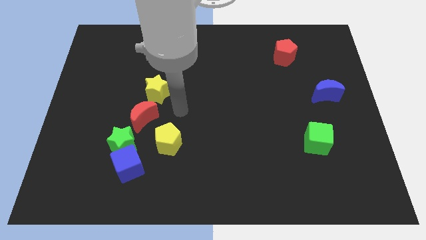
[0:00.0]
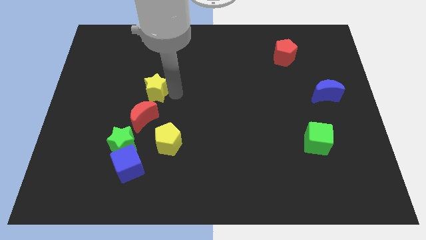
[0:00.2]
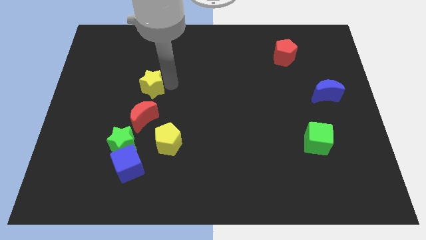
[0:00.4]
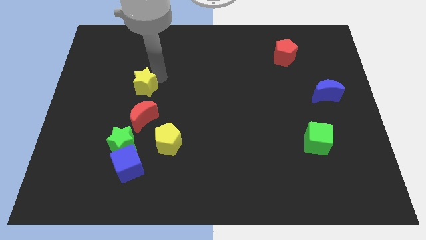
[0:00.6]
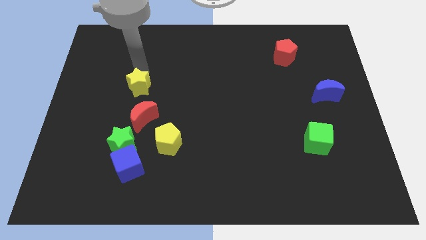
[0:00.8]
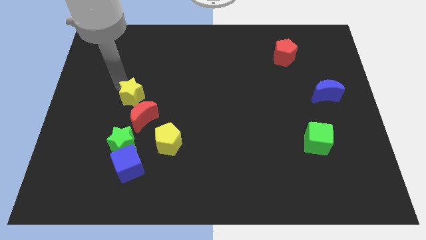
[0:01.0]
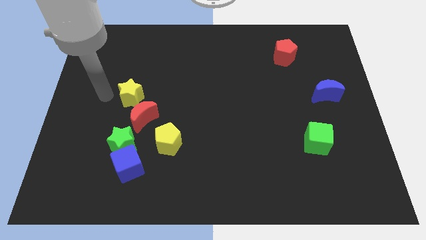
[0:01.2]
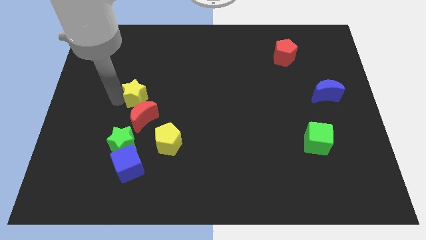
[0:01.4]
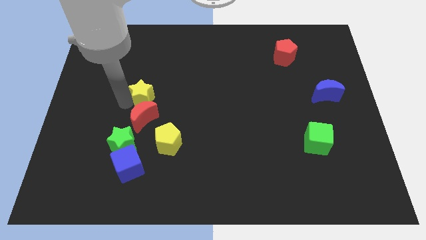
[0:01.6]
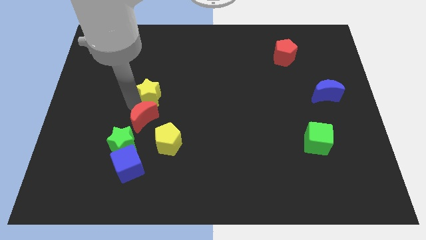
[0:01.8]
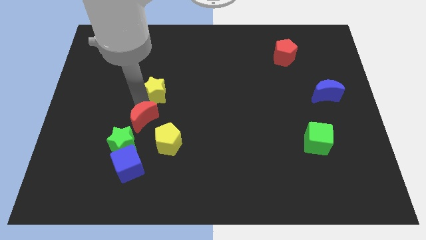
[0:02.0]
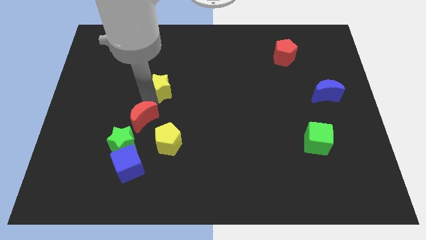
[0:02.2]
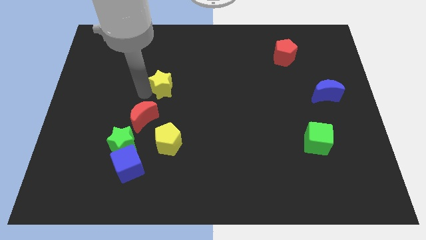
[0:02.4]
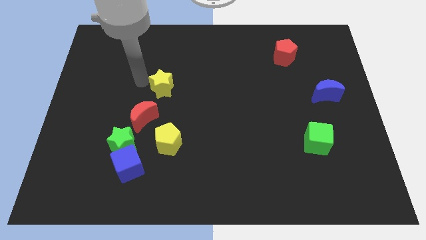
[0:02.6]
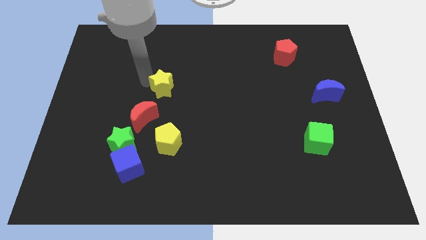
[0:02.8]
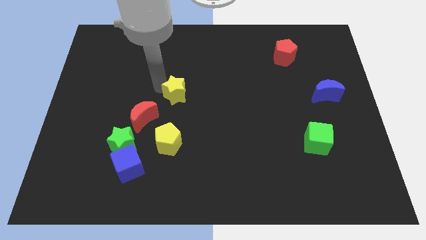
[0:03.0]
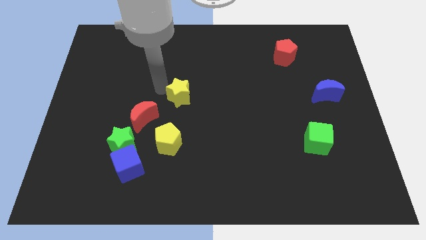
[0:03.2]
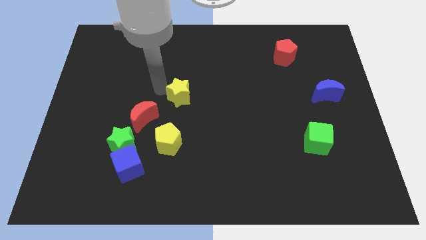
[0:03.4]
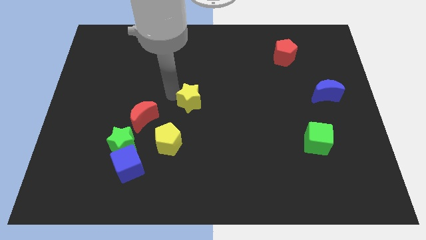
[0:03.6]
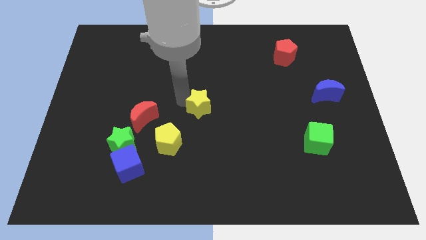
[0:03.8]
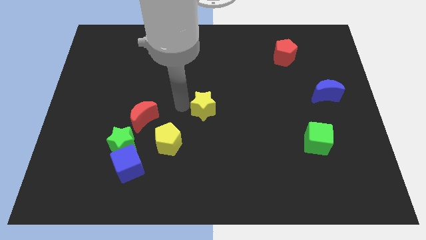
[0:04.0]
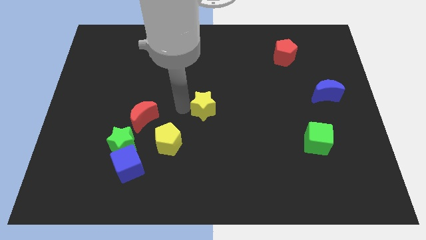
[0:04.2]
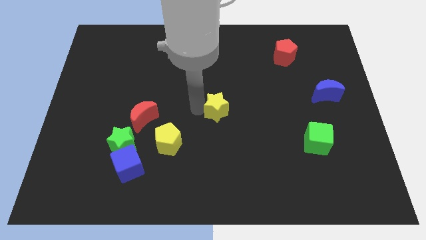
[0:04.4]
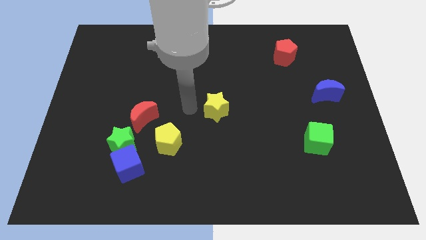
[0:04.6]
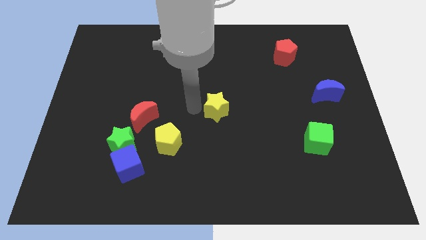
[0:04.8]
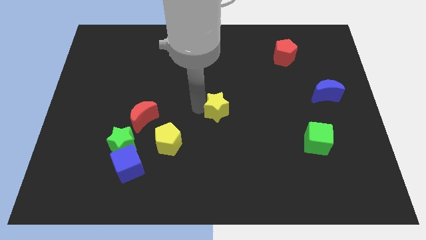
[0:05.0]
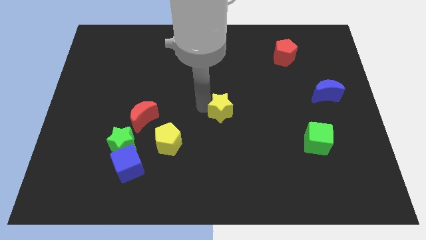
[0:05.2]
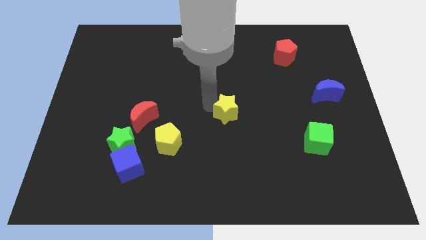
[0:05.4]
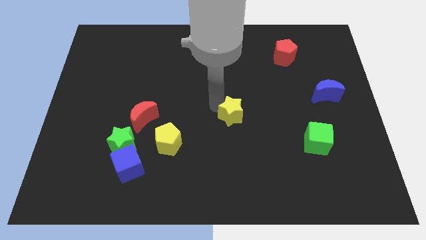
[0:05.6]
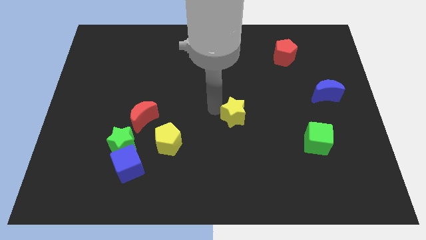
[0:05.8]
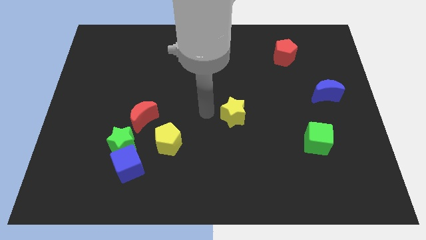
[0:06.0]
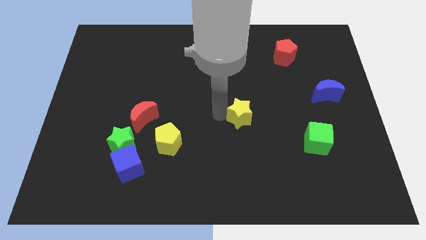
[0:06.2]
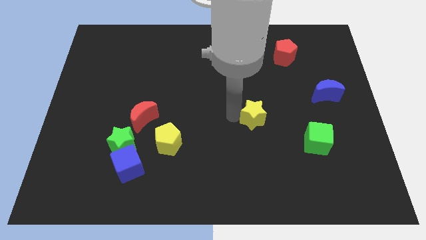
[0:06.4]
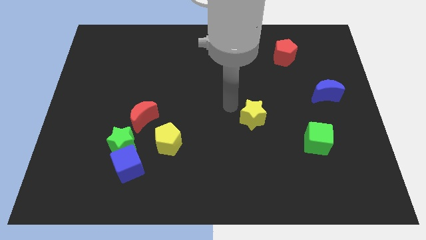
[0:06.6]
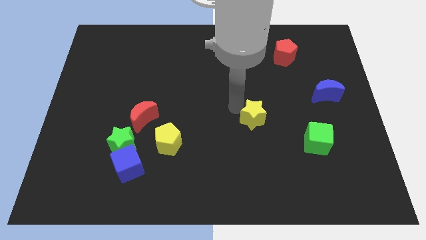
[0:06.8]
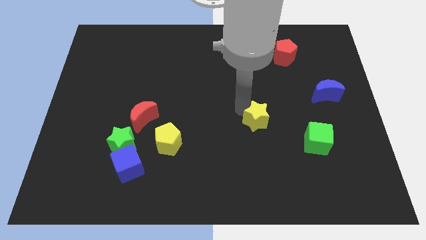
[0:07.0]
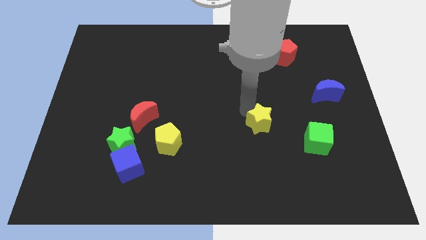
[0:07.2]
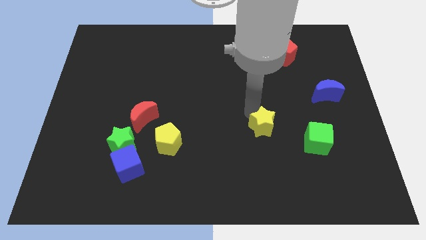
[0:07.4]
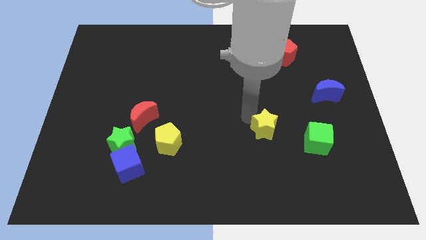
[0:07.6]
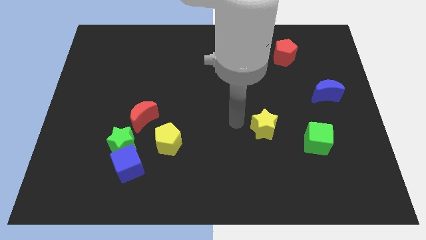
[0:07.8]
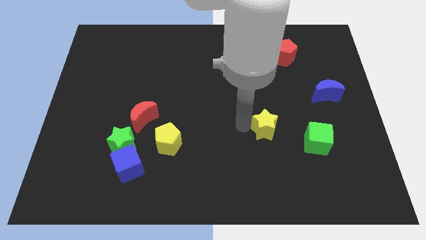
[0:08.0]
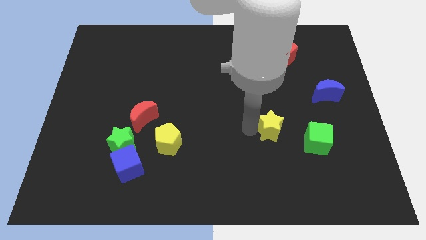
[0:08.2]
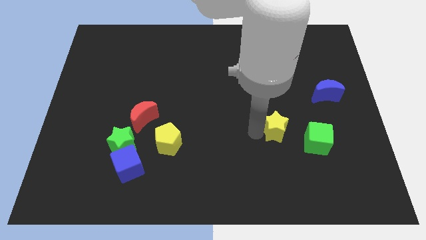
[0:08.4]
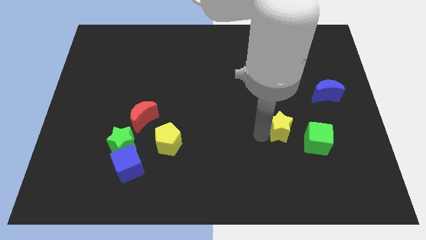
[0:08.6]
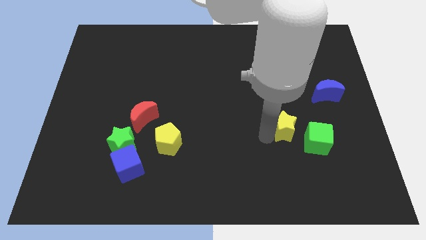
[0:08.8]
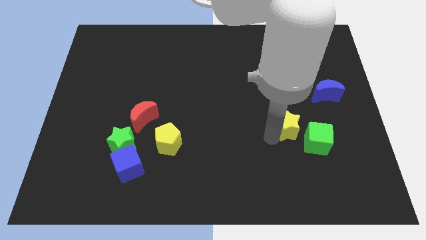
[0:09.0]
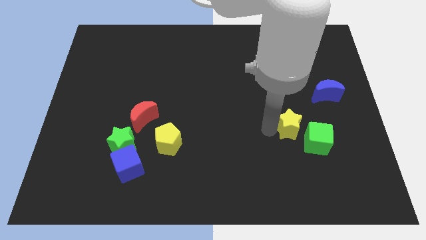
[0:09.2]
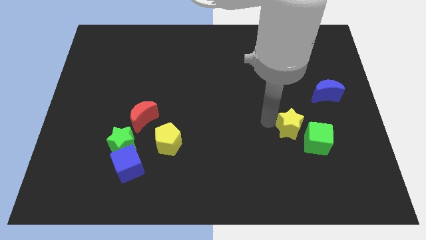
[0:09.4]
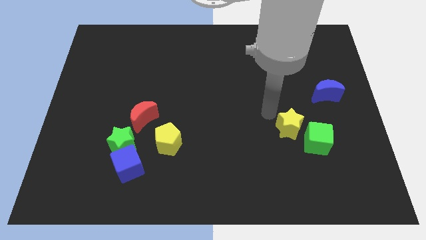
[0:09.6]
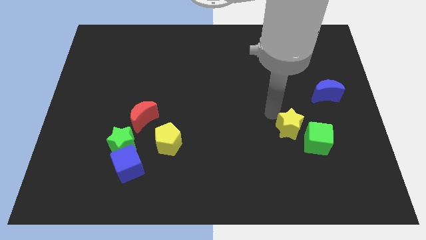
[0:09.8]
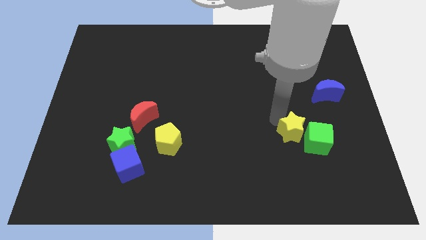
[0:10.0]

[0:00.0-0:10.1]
put the yellow star next to the green cube

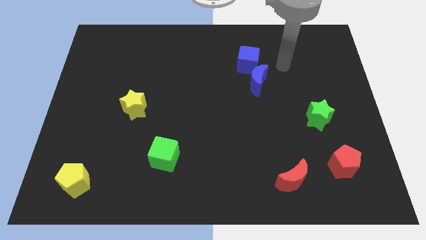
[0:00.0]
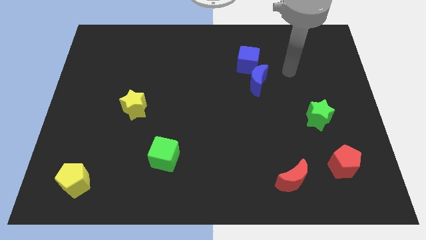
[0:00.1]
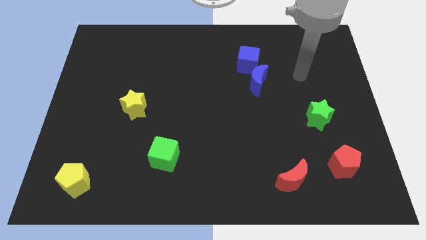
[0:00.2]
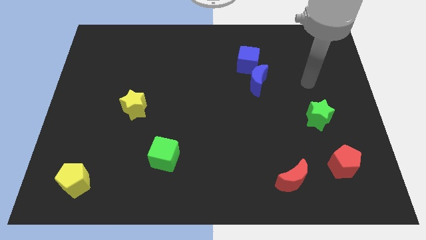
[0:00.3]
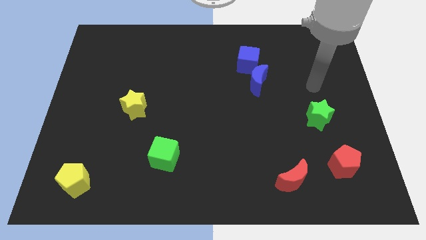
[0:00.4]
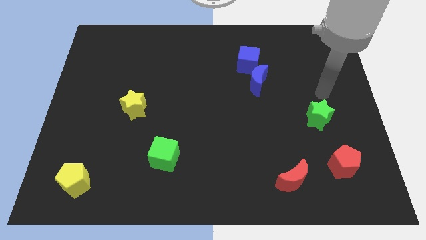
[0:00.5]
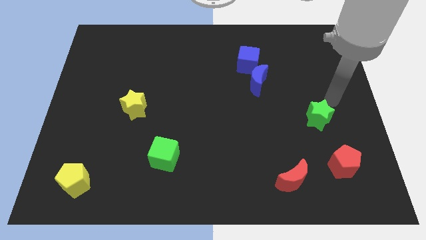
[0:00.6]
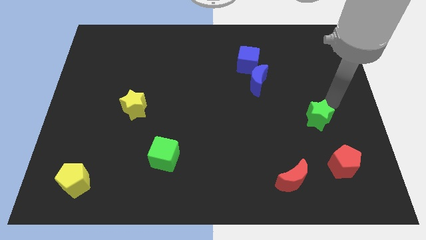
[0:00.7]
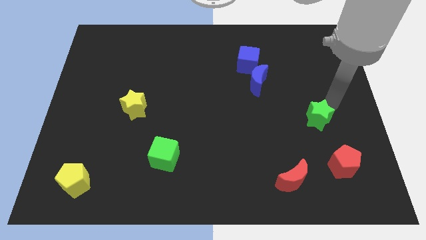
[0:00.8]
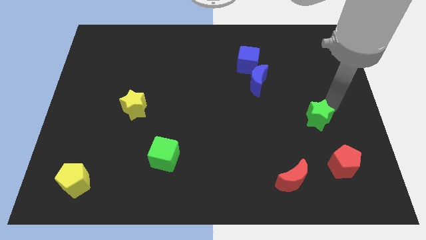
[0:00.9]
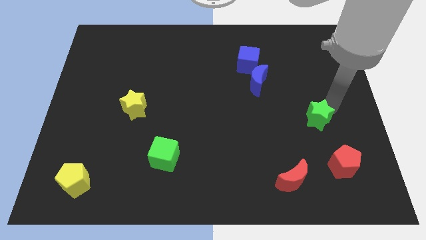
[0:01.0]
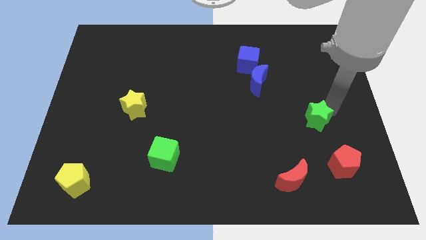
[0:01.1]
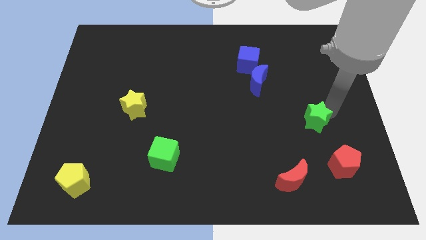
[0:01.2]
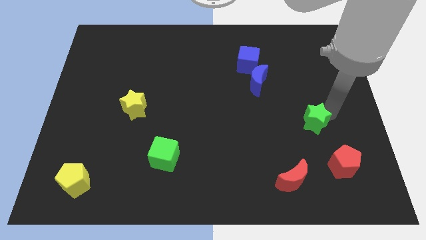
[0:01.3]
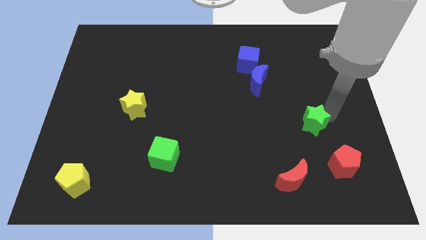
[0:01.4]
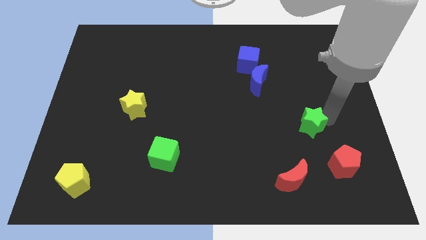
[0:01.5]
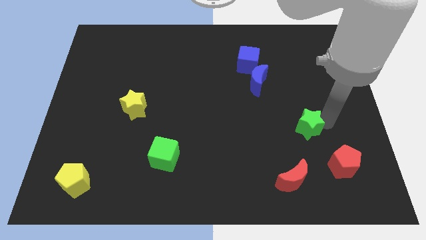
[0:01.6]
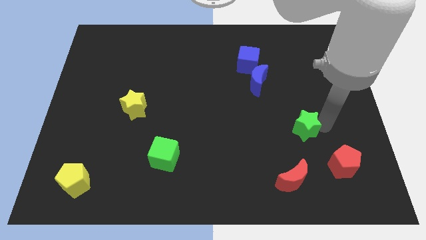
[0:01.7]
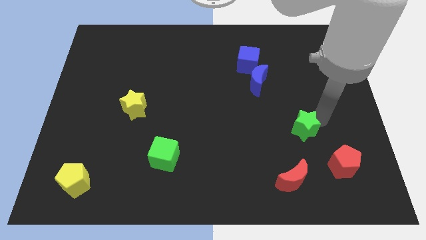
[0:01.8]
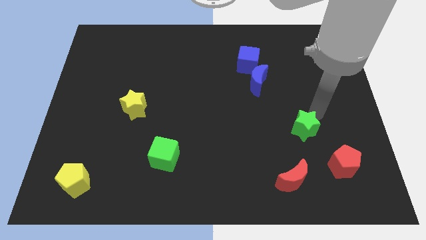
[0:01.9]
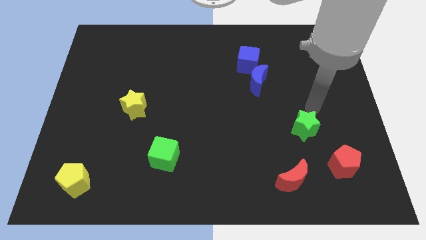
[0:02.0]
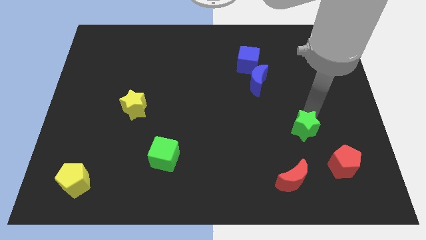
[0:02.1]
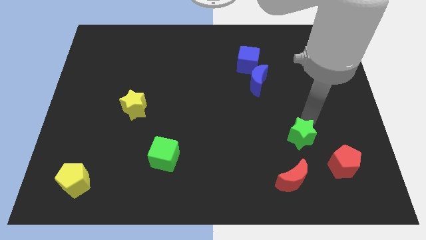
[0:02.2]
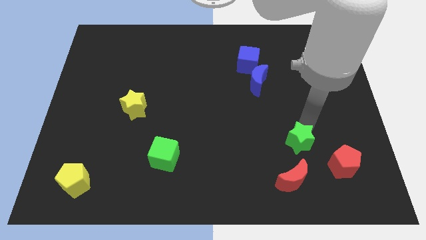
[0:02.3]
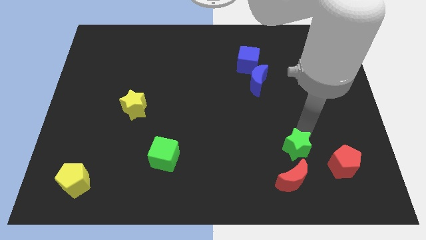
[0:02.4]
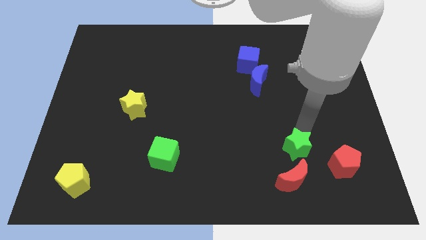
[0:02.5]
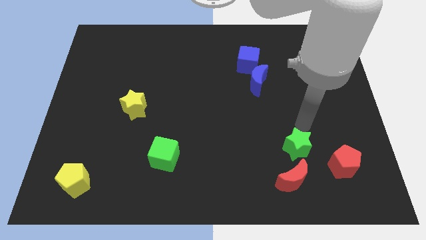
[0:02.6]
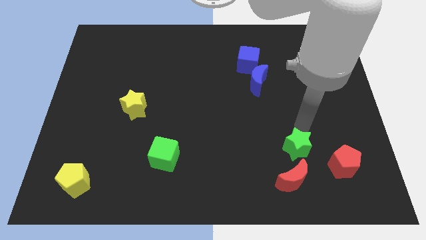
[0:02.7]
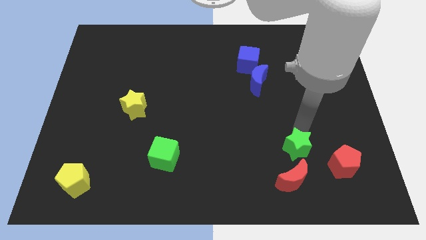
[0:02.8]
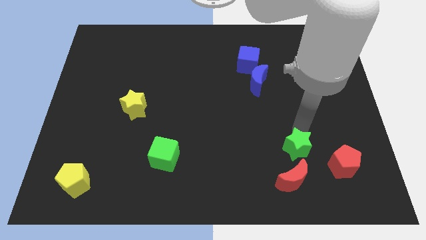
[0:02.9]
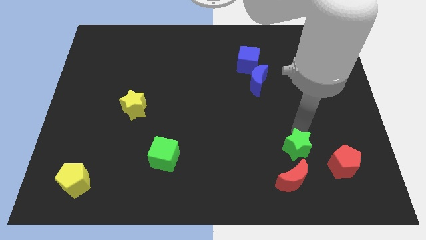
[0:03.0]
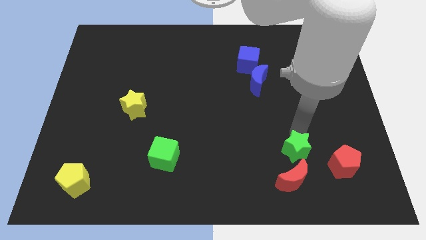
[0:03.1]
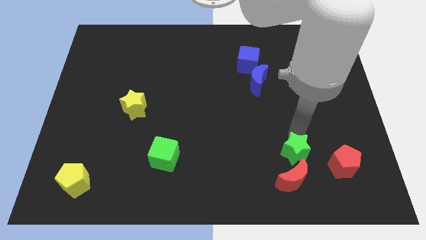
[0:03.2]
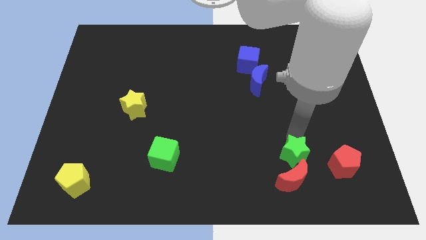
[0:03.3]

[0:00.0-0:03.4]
slide the green star close to the red moon
